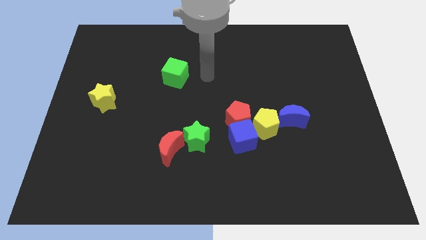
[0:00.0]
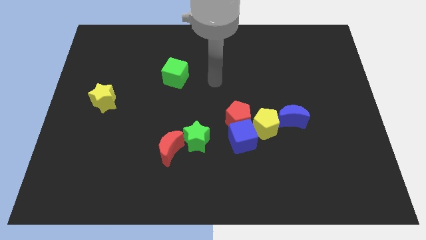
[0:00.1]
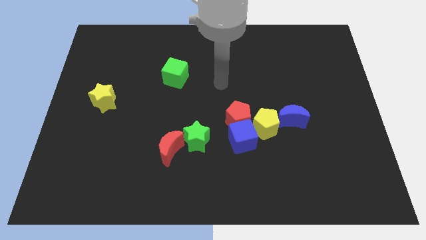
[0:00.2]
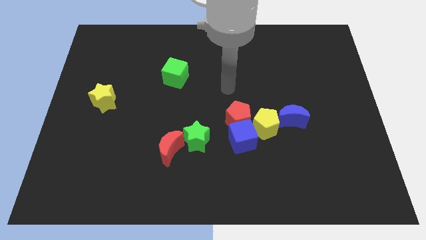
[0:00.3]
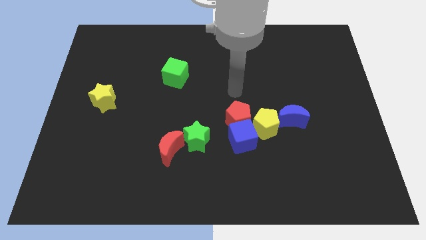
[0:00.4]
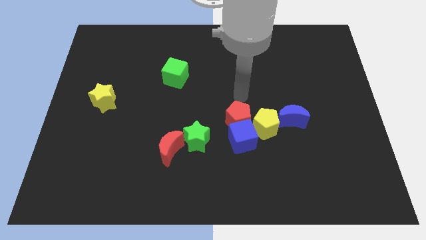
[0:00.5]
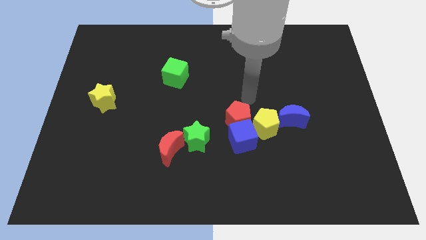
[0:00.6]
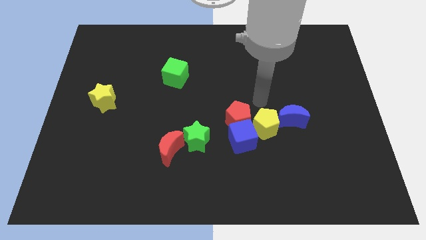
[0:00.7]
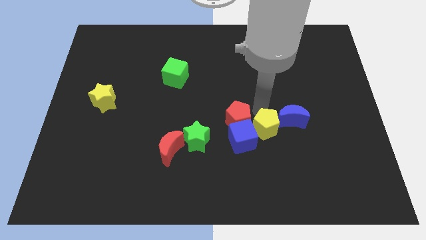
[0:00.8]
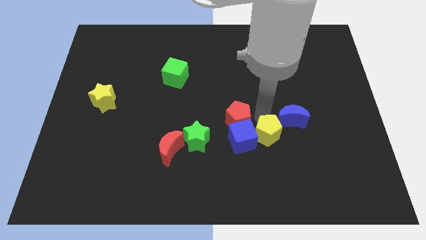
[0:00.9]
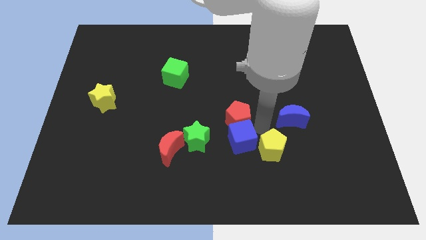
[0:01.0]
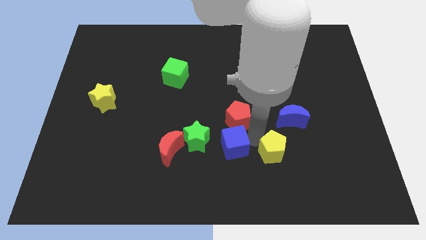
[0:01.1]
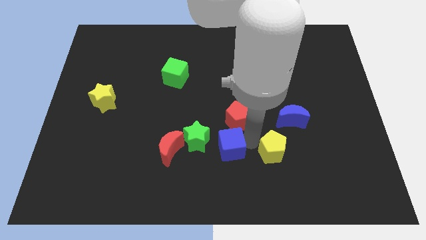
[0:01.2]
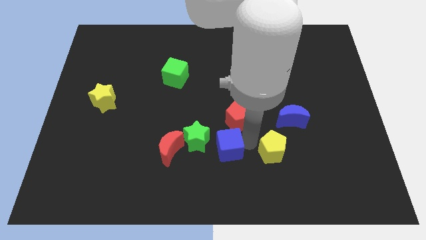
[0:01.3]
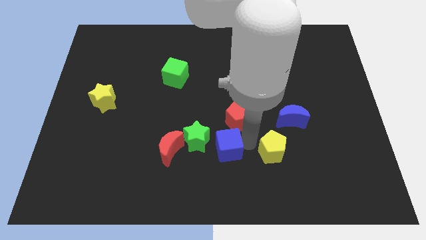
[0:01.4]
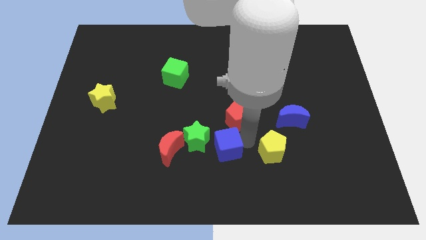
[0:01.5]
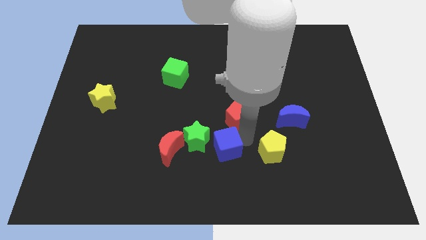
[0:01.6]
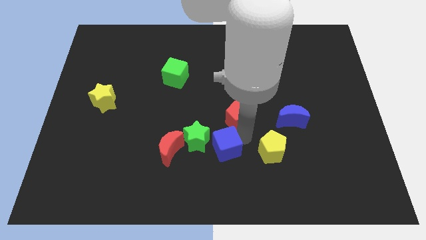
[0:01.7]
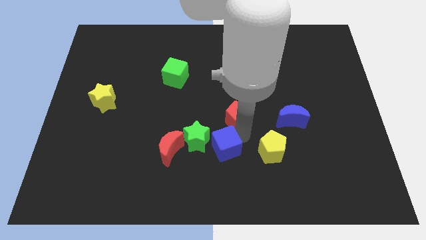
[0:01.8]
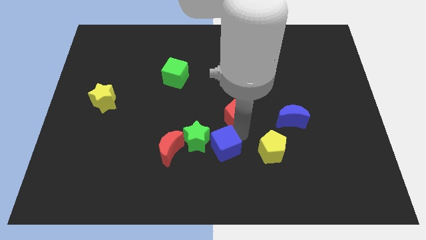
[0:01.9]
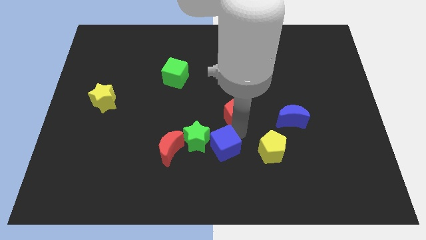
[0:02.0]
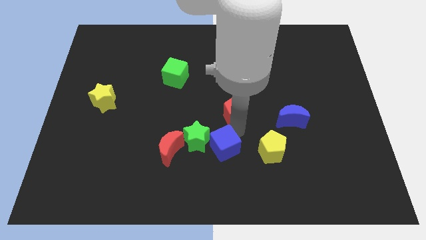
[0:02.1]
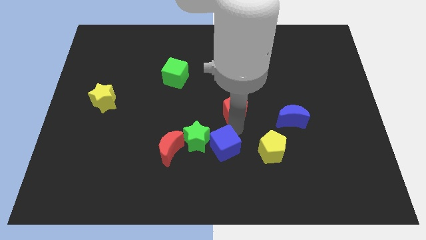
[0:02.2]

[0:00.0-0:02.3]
pull the red pentagon apart from the blue cube and yellow pentagon

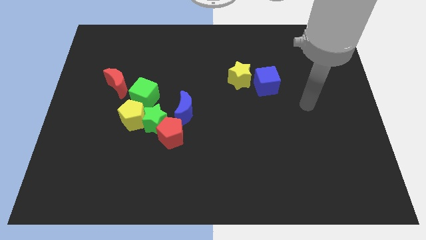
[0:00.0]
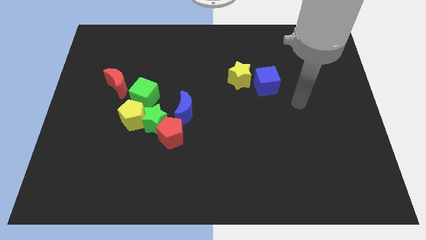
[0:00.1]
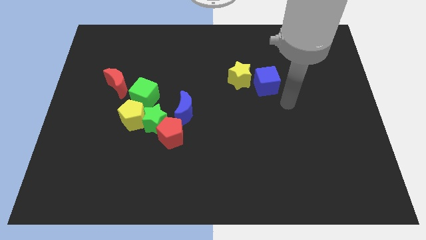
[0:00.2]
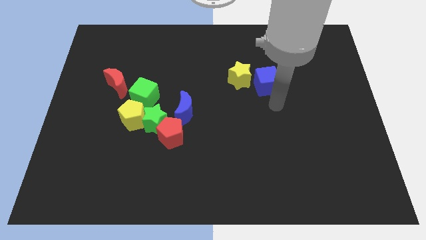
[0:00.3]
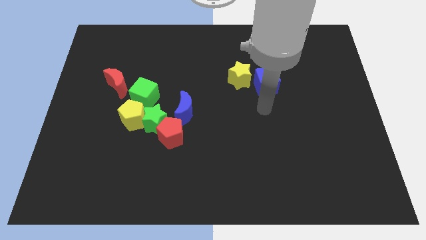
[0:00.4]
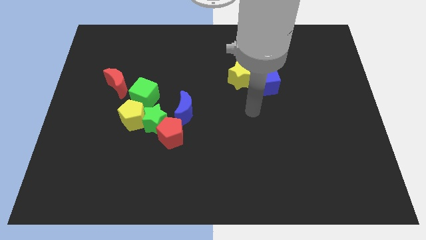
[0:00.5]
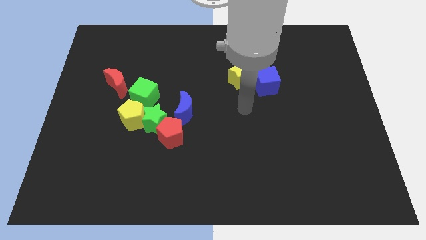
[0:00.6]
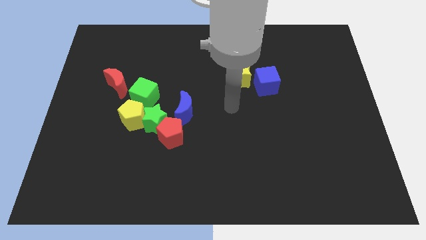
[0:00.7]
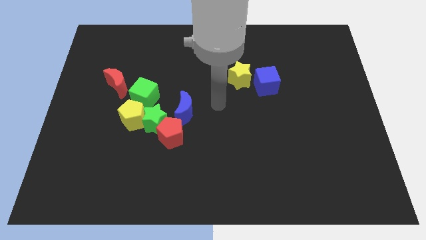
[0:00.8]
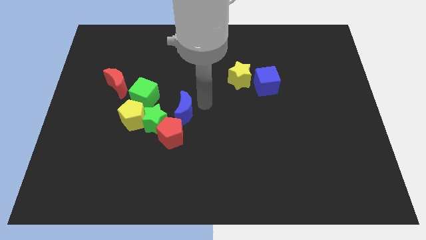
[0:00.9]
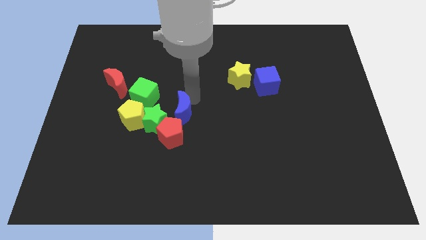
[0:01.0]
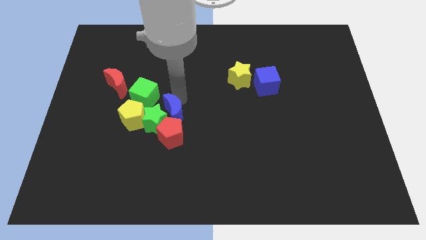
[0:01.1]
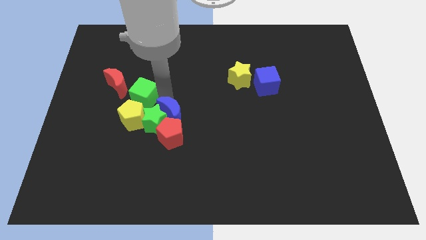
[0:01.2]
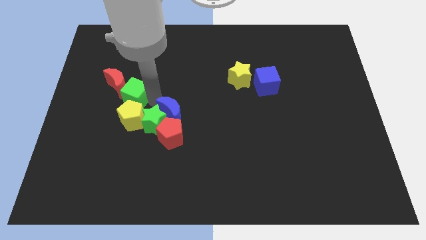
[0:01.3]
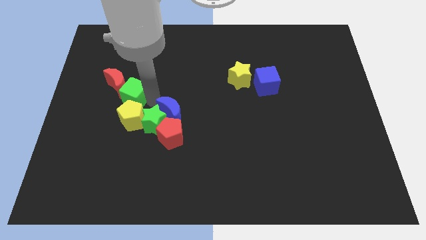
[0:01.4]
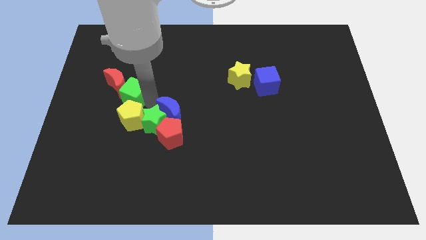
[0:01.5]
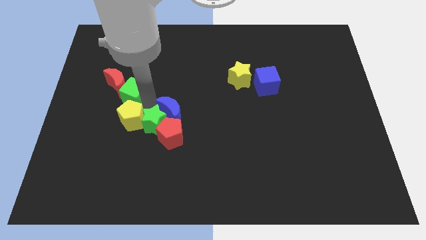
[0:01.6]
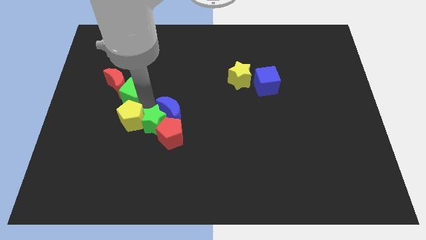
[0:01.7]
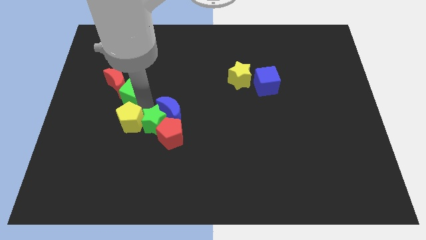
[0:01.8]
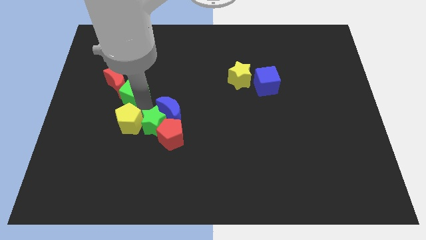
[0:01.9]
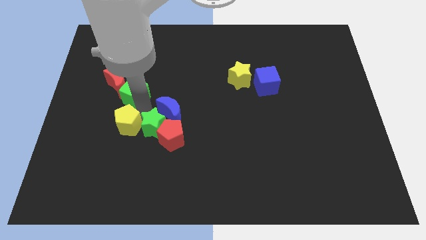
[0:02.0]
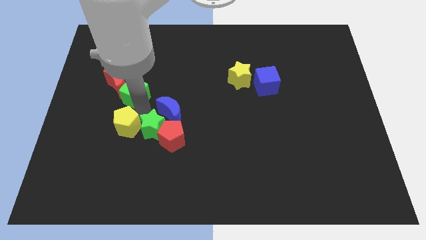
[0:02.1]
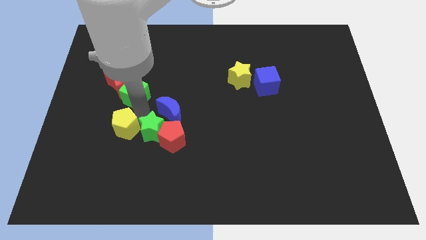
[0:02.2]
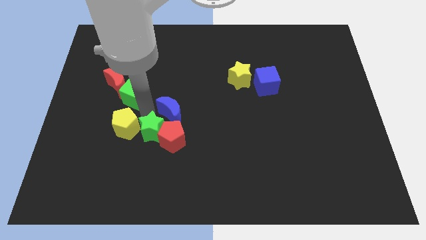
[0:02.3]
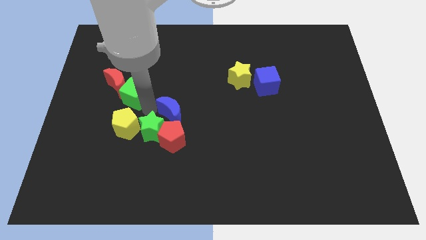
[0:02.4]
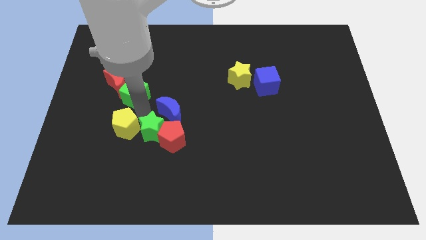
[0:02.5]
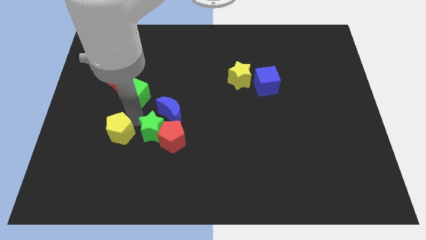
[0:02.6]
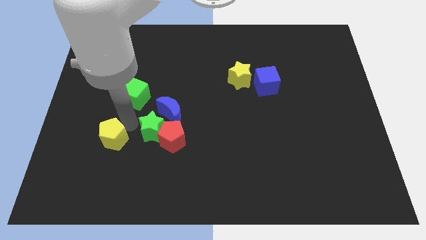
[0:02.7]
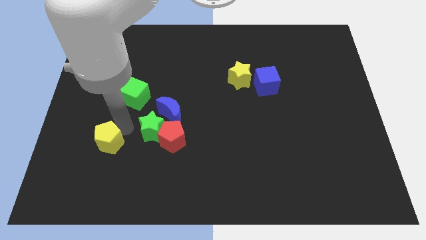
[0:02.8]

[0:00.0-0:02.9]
move the yellow pentagon away from the green star and green cube

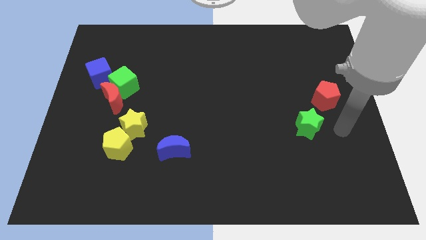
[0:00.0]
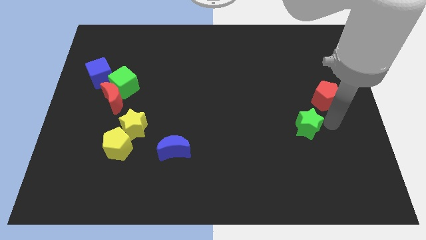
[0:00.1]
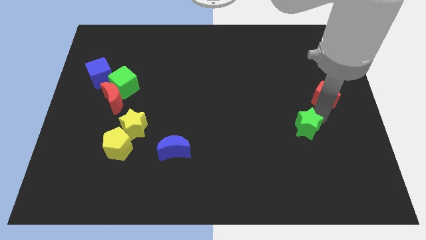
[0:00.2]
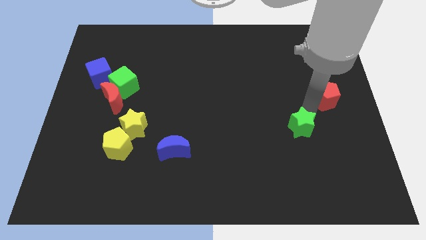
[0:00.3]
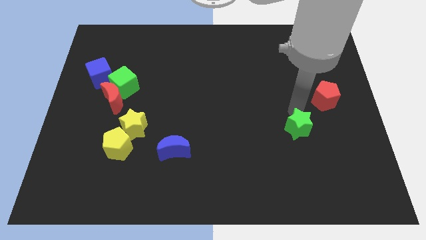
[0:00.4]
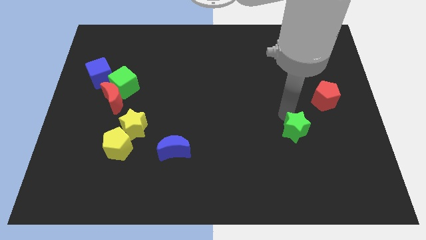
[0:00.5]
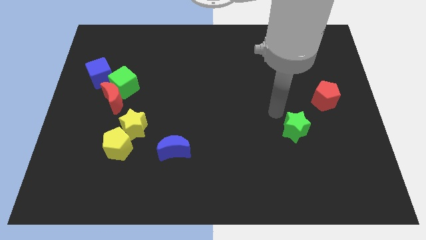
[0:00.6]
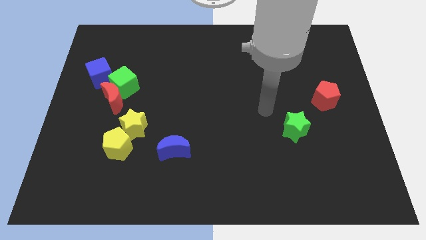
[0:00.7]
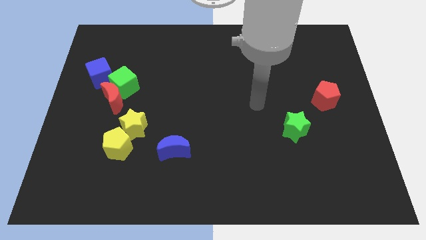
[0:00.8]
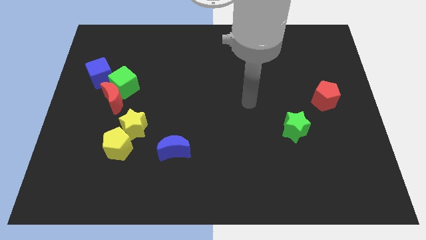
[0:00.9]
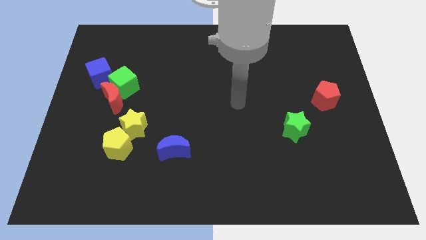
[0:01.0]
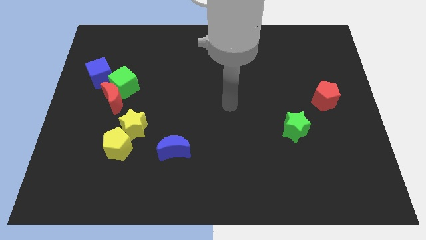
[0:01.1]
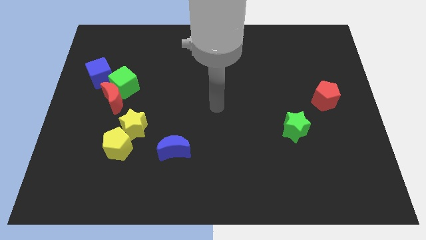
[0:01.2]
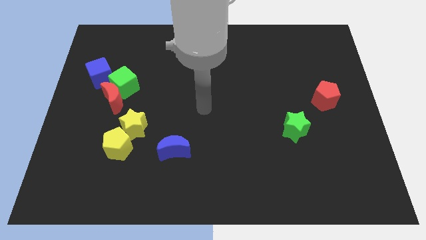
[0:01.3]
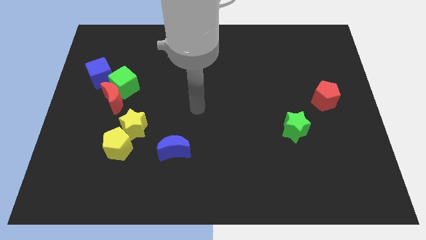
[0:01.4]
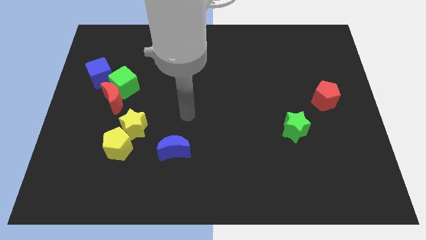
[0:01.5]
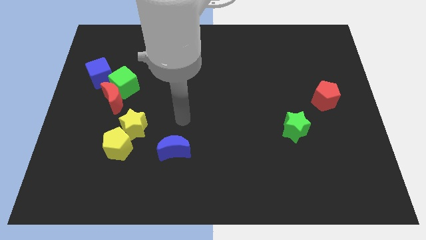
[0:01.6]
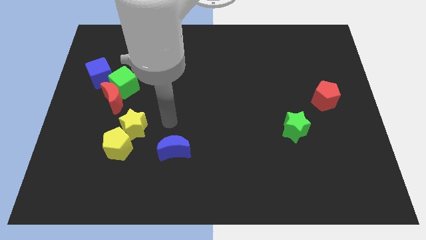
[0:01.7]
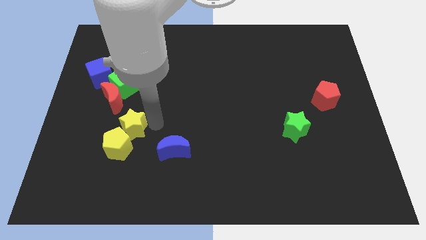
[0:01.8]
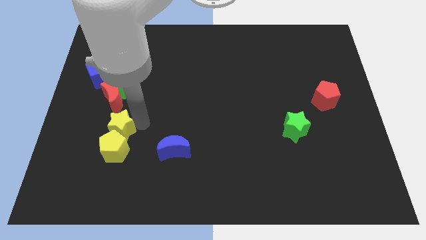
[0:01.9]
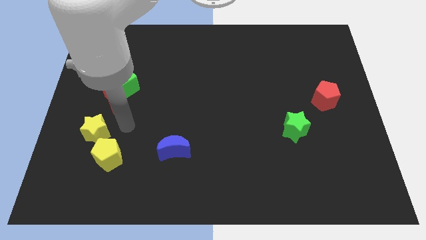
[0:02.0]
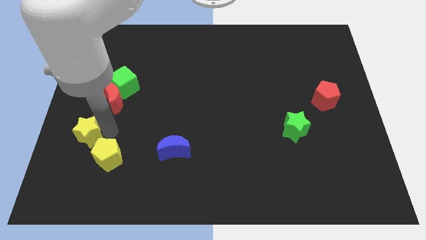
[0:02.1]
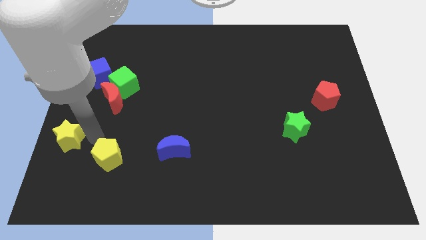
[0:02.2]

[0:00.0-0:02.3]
separate the yellow pentagon from the yellow star

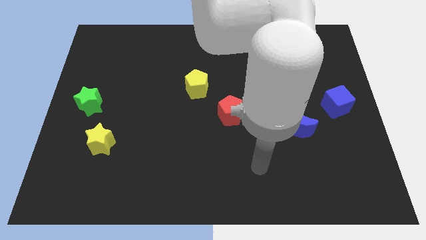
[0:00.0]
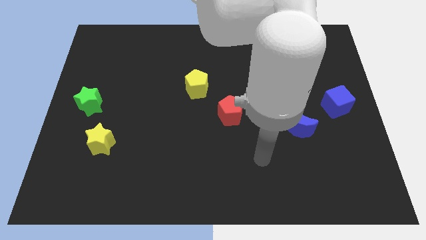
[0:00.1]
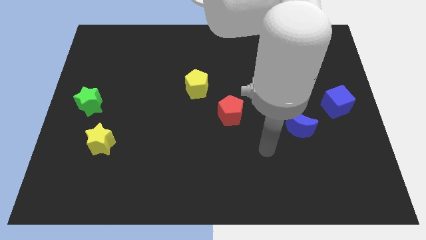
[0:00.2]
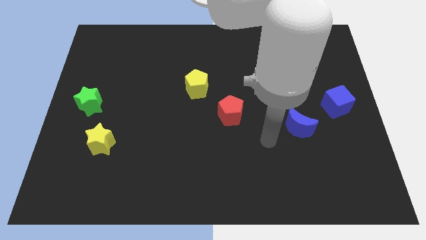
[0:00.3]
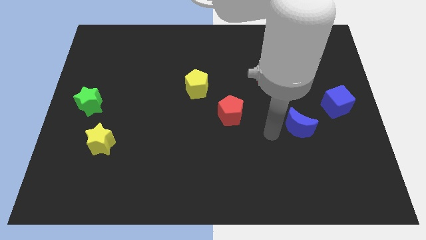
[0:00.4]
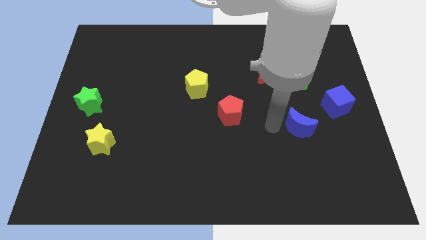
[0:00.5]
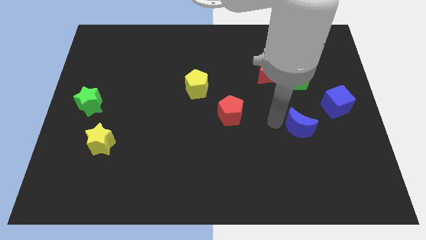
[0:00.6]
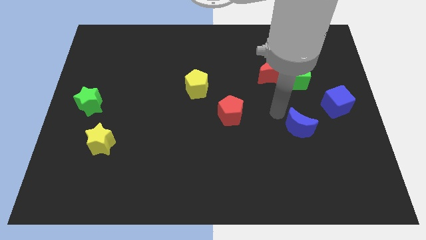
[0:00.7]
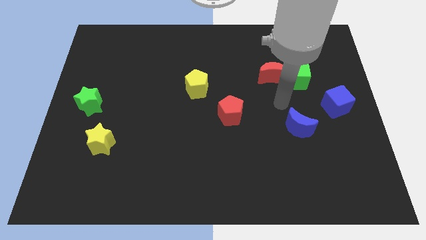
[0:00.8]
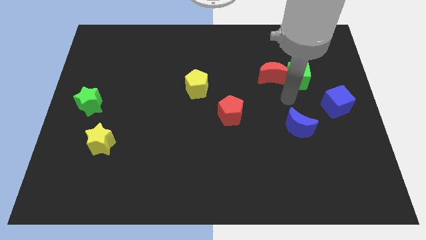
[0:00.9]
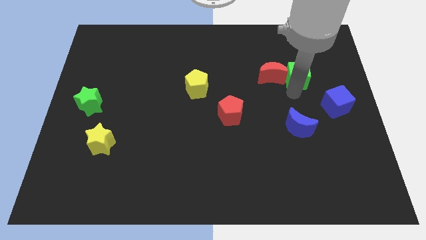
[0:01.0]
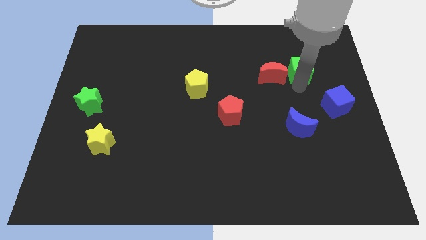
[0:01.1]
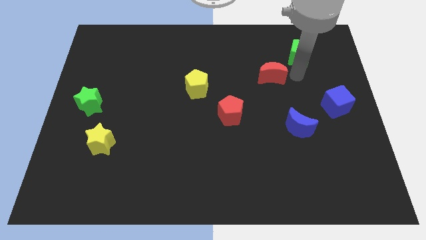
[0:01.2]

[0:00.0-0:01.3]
move the red moon away from the green cube

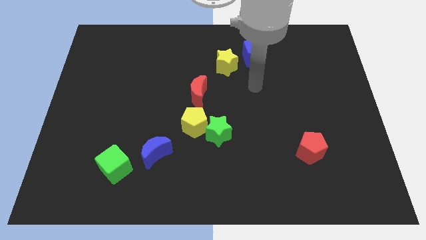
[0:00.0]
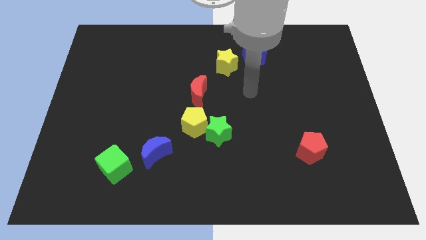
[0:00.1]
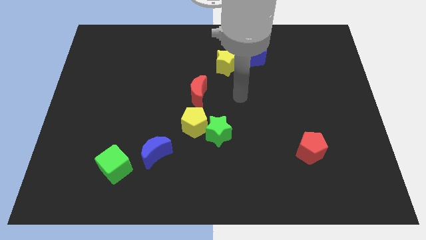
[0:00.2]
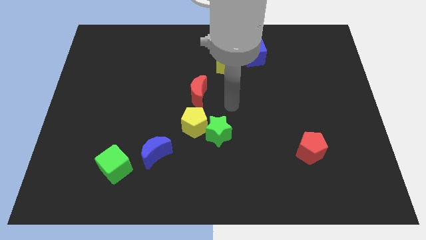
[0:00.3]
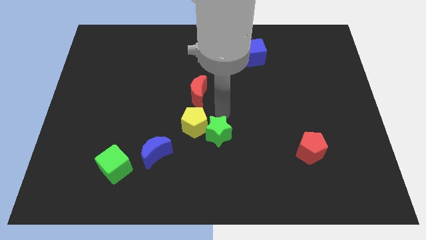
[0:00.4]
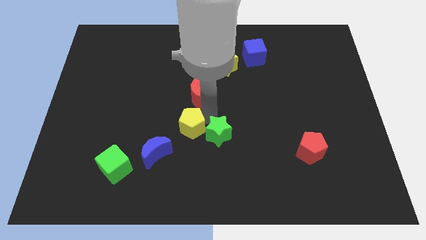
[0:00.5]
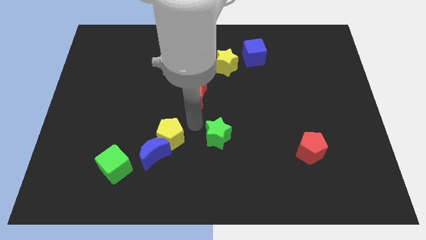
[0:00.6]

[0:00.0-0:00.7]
pull the green star apart from the yellow pentagon
